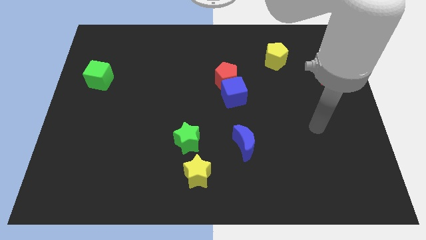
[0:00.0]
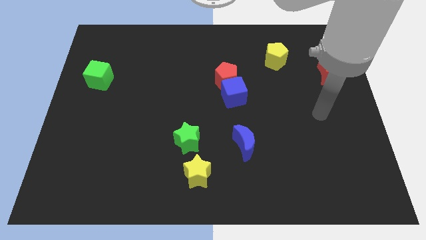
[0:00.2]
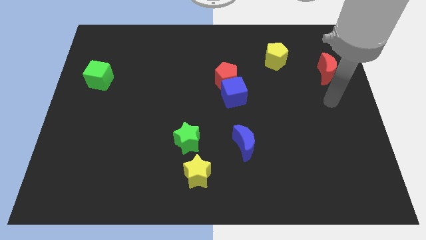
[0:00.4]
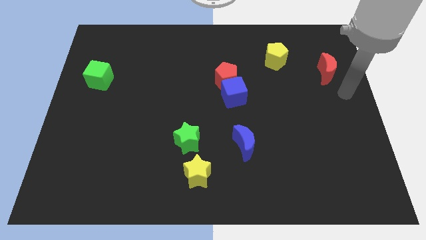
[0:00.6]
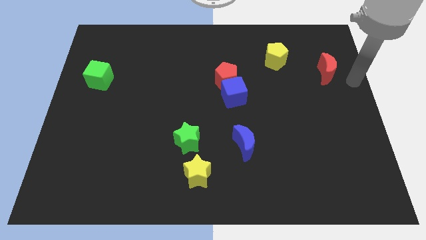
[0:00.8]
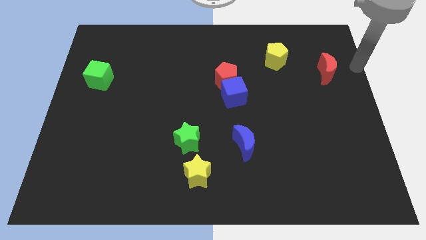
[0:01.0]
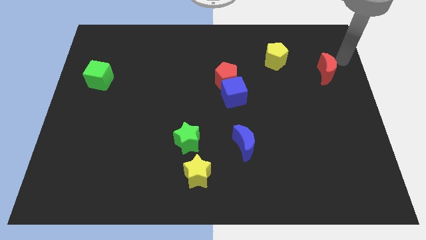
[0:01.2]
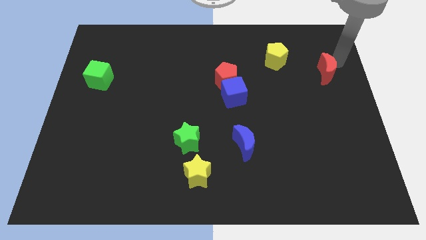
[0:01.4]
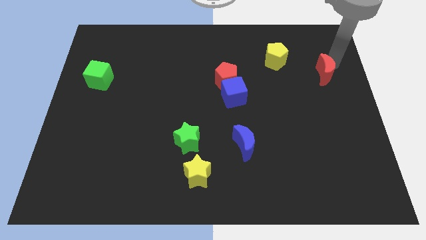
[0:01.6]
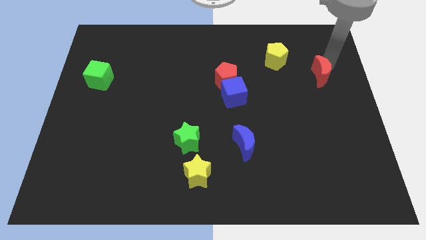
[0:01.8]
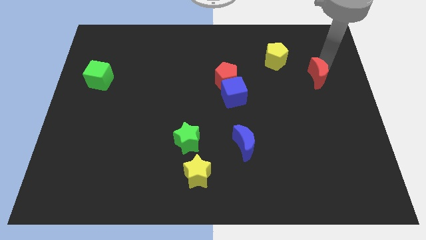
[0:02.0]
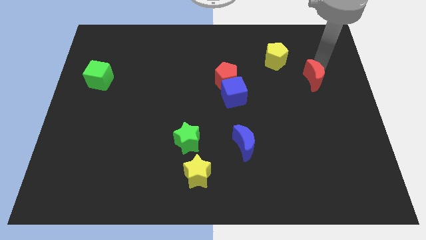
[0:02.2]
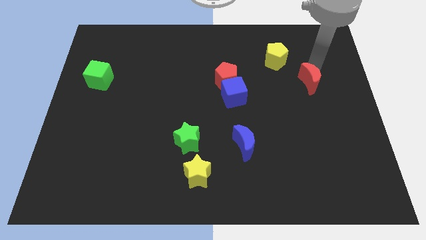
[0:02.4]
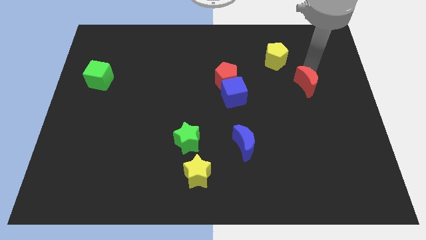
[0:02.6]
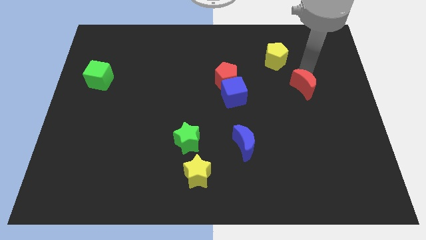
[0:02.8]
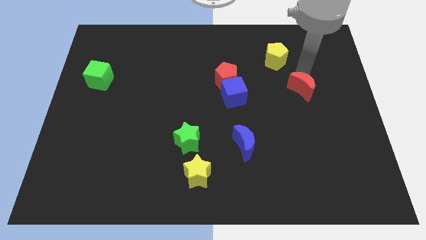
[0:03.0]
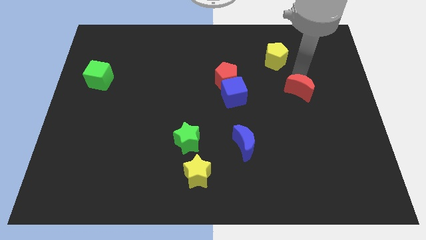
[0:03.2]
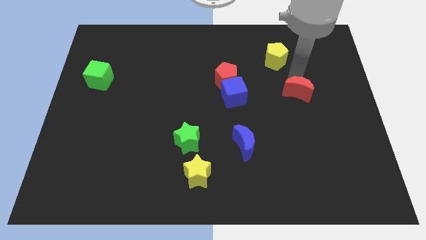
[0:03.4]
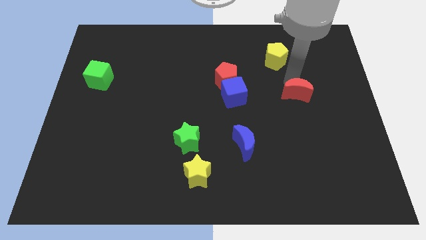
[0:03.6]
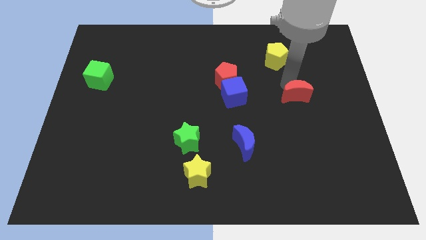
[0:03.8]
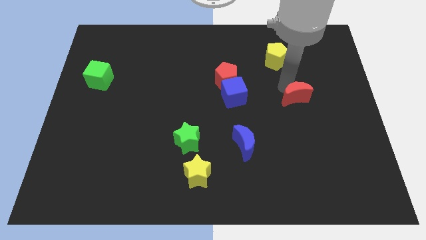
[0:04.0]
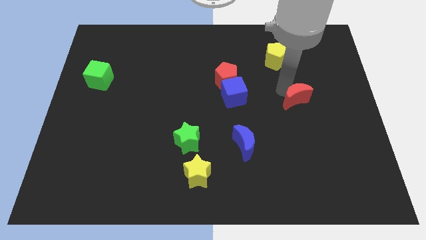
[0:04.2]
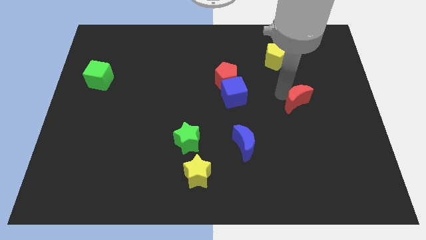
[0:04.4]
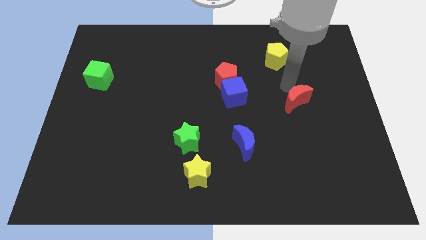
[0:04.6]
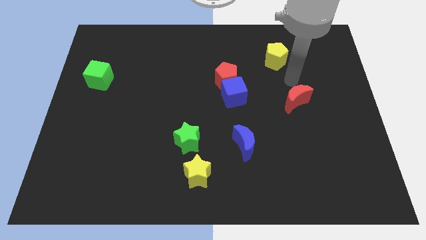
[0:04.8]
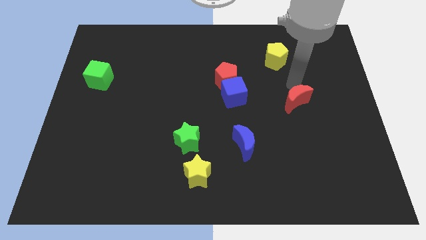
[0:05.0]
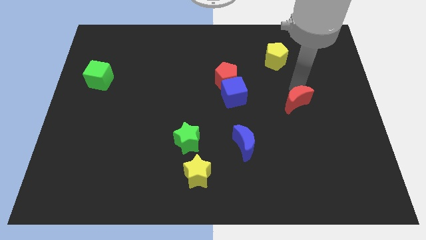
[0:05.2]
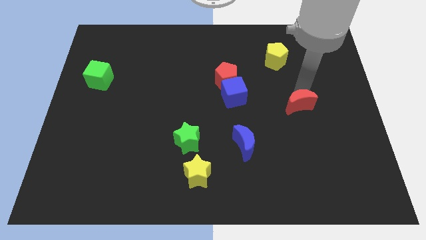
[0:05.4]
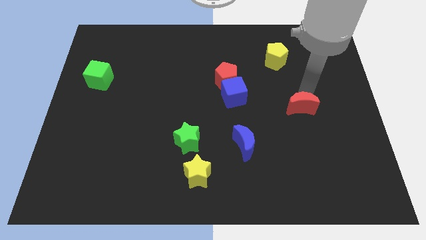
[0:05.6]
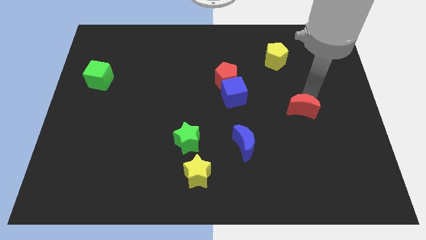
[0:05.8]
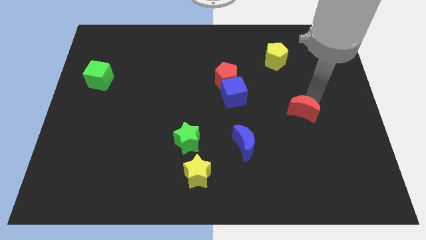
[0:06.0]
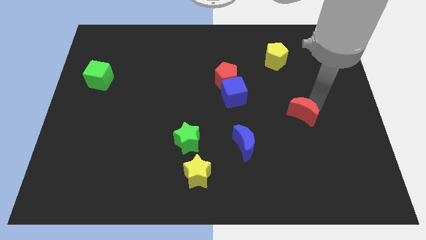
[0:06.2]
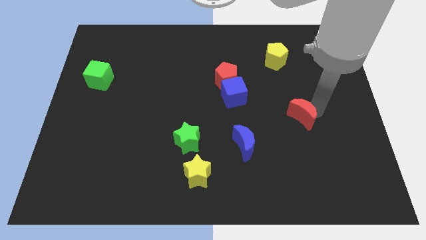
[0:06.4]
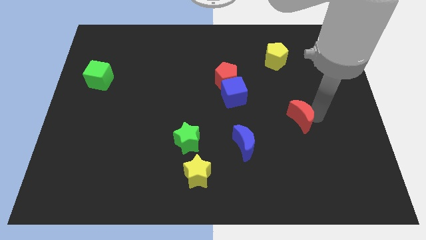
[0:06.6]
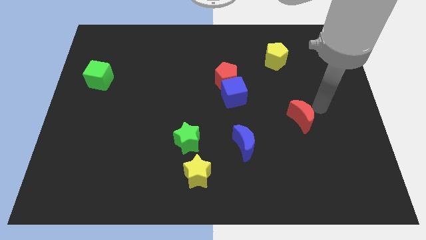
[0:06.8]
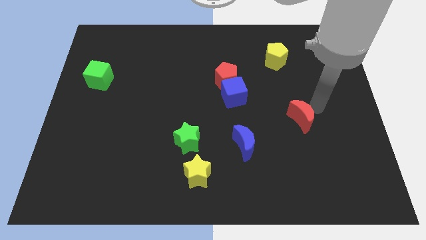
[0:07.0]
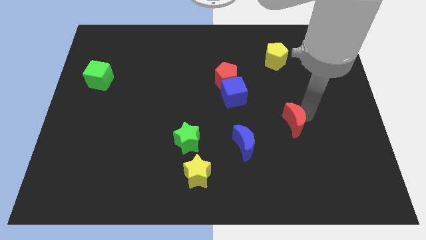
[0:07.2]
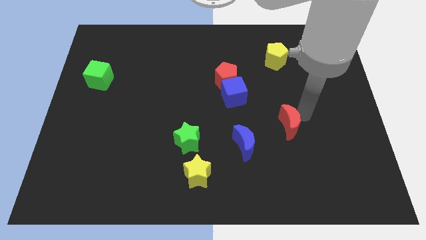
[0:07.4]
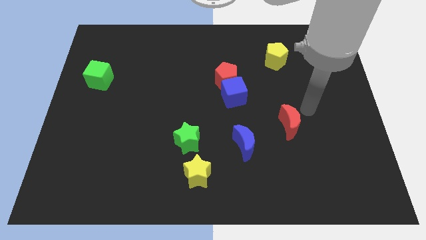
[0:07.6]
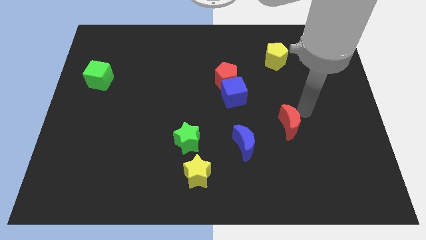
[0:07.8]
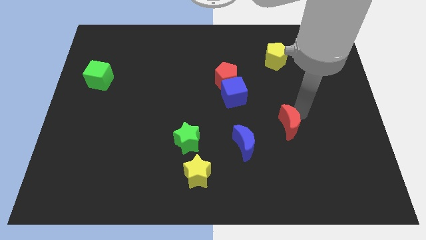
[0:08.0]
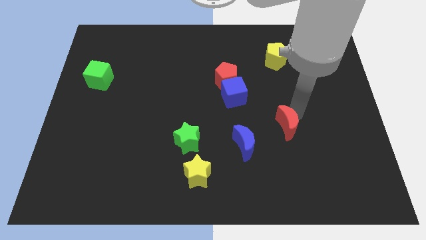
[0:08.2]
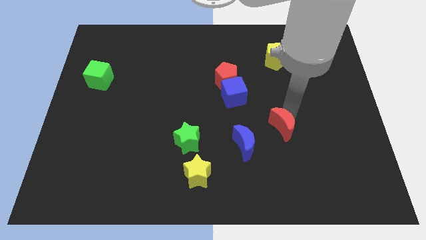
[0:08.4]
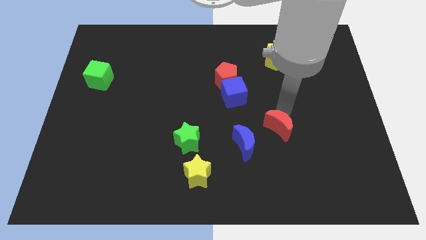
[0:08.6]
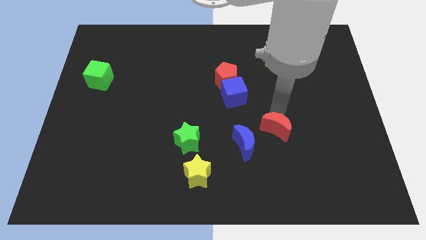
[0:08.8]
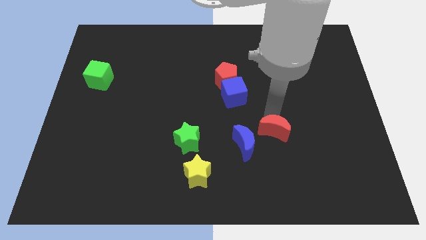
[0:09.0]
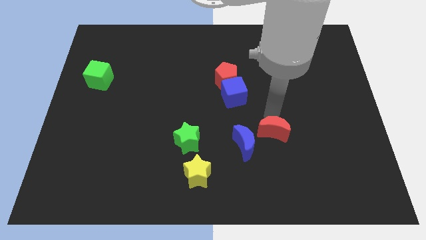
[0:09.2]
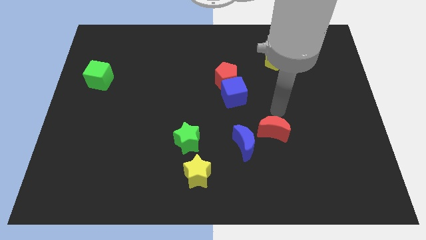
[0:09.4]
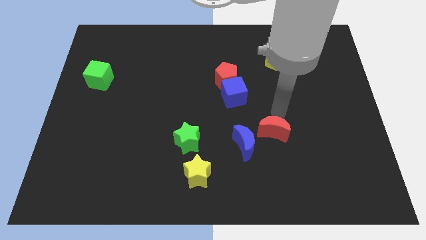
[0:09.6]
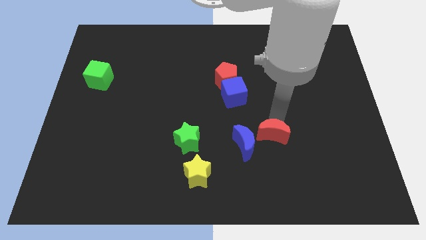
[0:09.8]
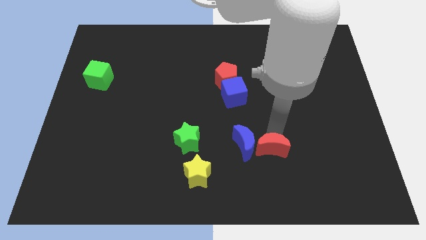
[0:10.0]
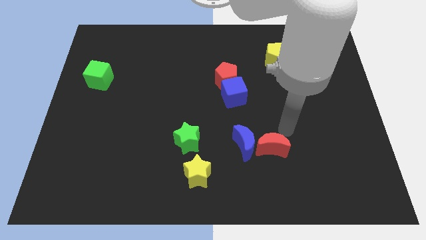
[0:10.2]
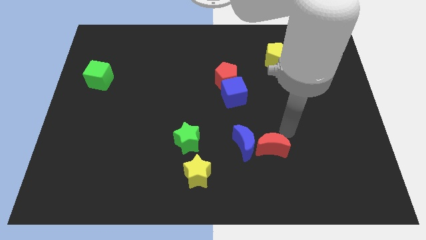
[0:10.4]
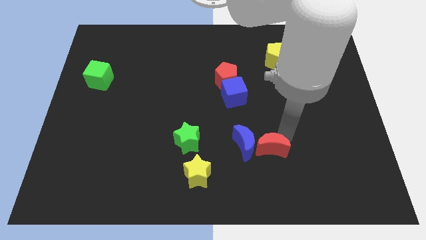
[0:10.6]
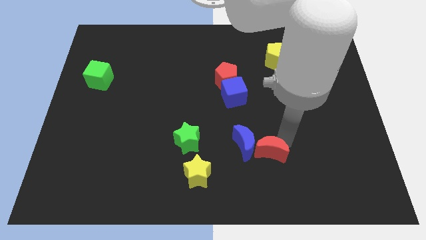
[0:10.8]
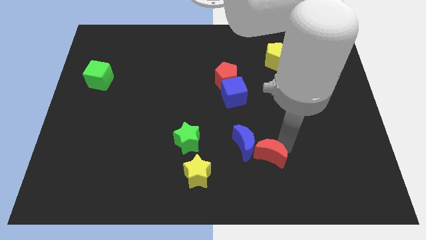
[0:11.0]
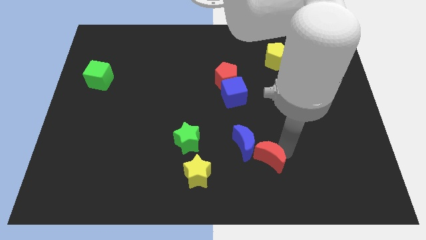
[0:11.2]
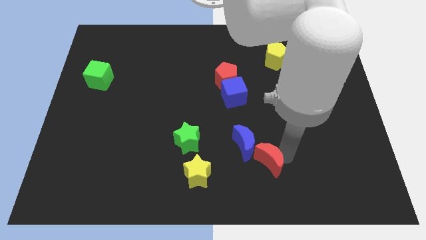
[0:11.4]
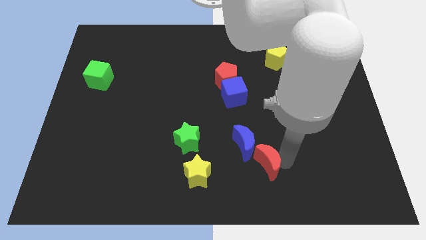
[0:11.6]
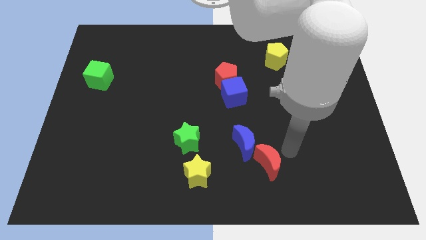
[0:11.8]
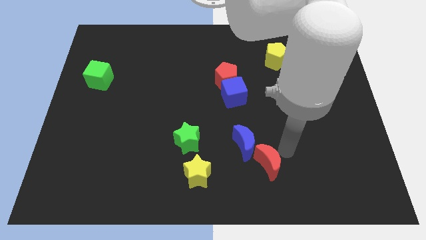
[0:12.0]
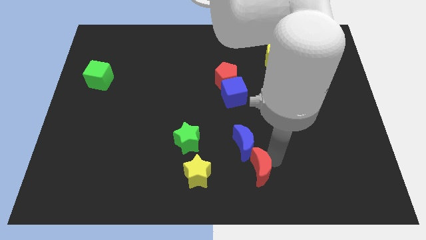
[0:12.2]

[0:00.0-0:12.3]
move the red moon to the bottom
